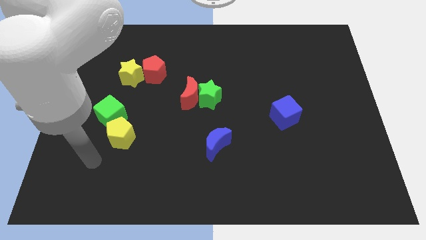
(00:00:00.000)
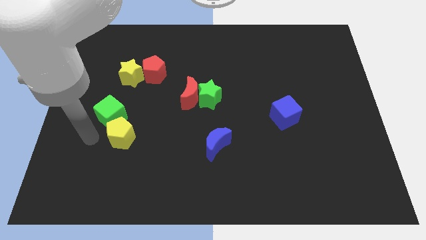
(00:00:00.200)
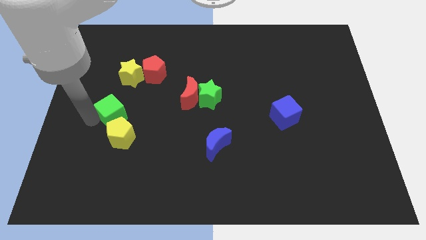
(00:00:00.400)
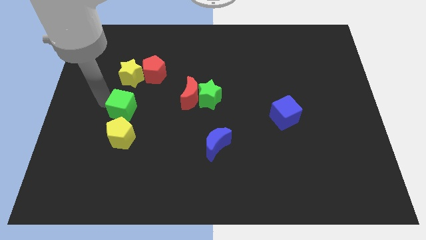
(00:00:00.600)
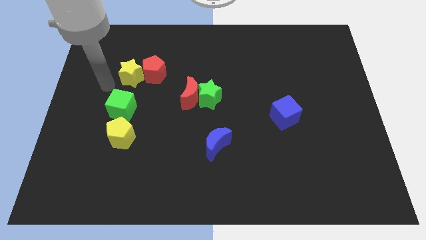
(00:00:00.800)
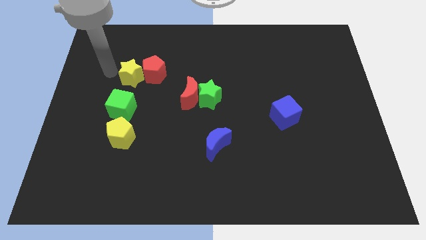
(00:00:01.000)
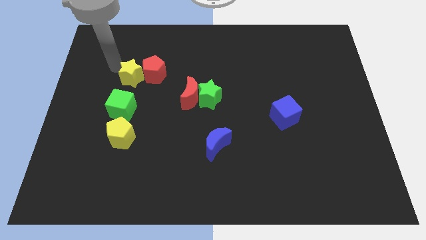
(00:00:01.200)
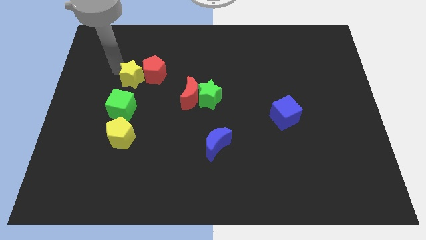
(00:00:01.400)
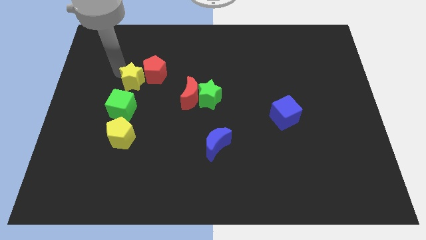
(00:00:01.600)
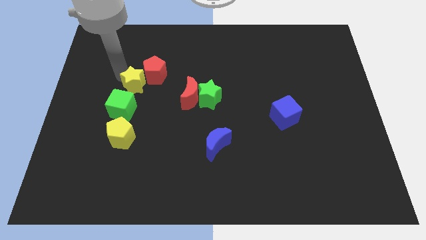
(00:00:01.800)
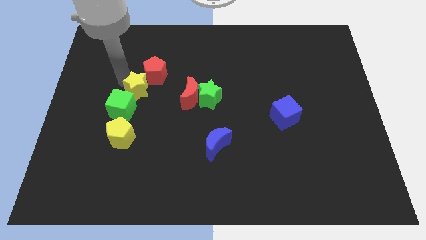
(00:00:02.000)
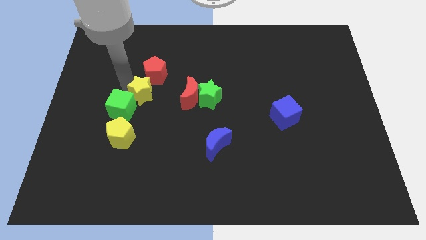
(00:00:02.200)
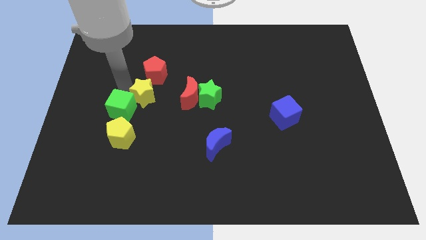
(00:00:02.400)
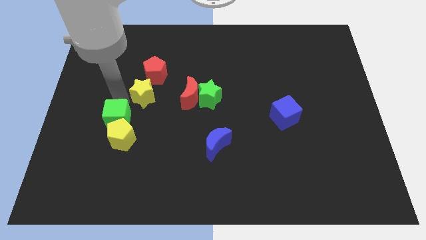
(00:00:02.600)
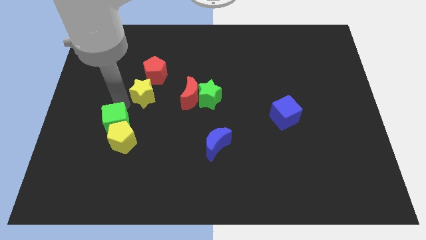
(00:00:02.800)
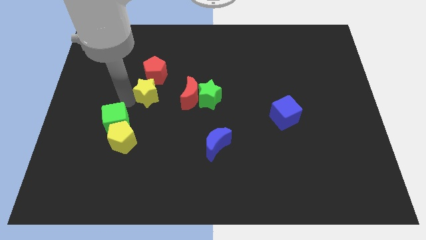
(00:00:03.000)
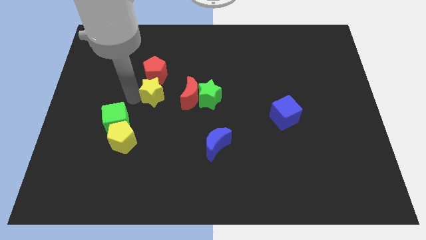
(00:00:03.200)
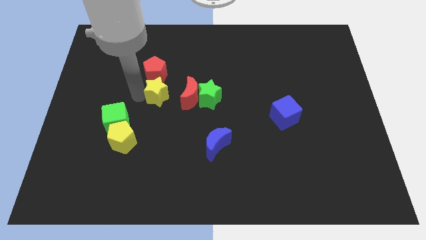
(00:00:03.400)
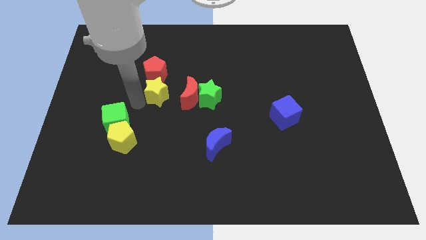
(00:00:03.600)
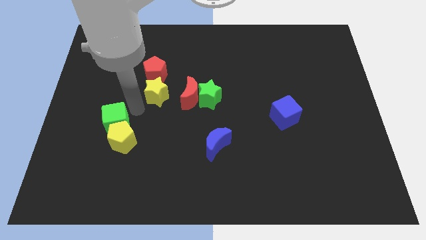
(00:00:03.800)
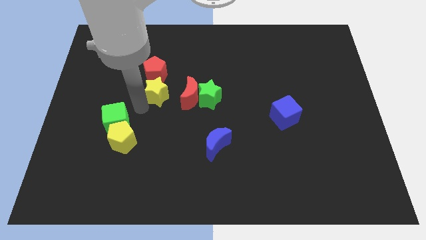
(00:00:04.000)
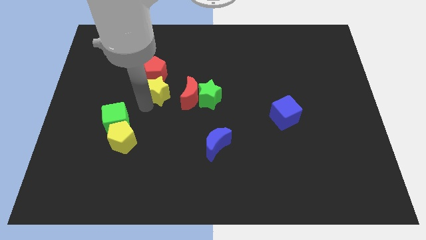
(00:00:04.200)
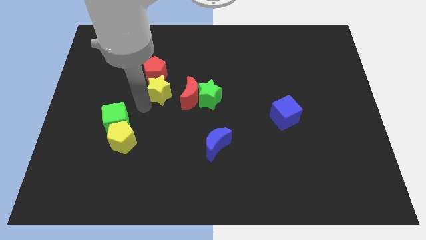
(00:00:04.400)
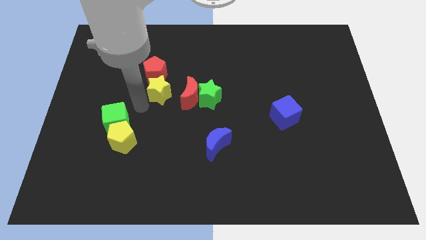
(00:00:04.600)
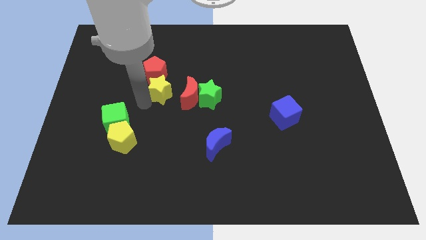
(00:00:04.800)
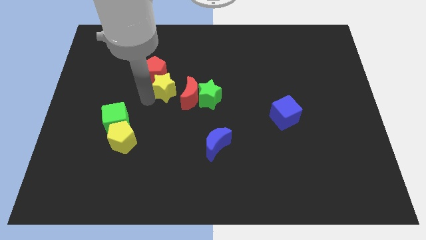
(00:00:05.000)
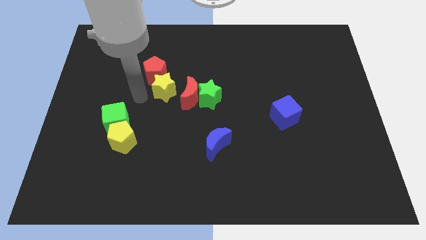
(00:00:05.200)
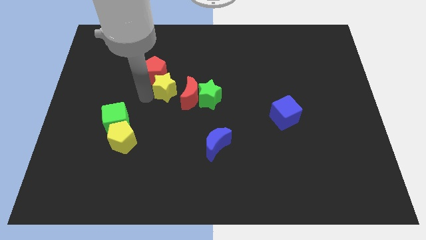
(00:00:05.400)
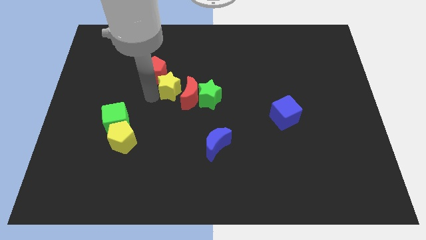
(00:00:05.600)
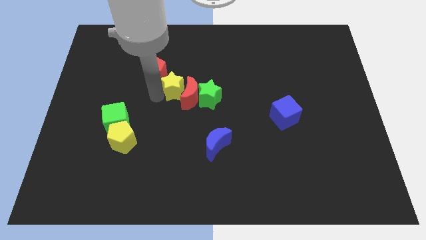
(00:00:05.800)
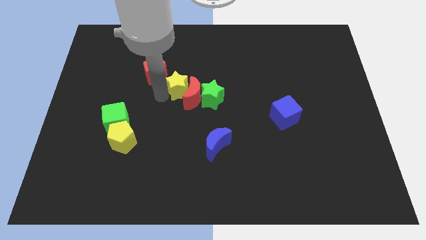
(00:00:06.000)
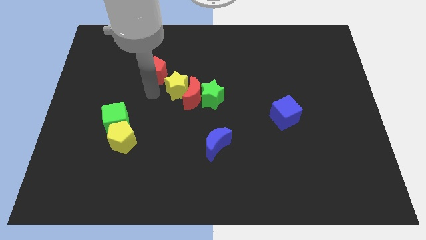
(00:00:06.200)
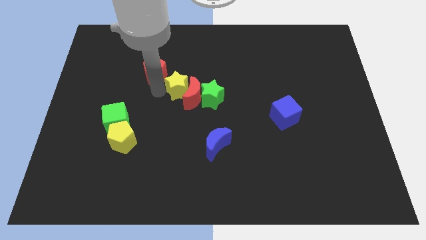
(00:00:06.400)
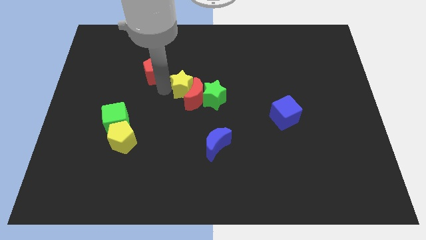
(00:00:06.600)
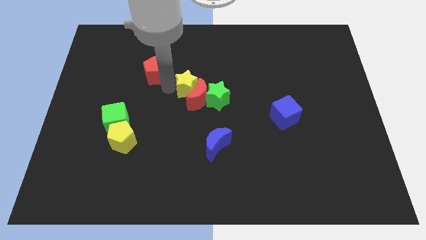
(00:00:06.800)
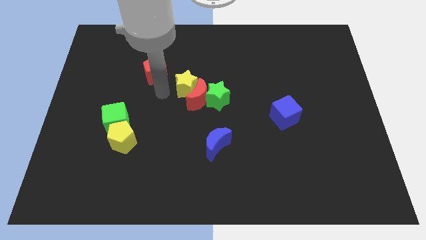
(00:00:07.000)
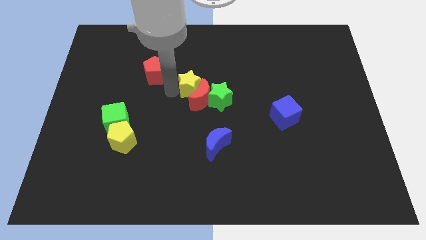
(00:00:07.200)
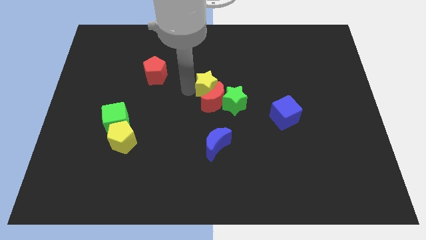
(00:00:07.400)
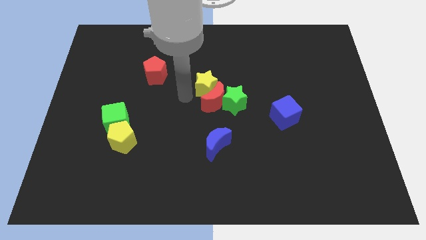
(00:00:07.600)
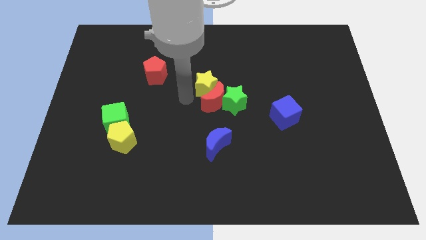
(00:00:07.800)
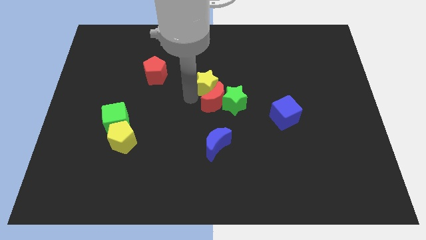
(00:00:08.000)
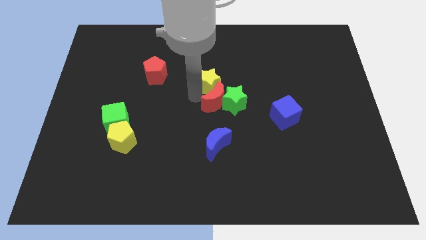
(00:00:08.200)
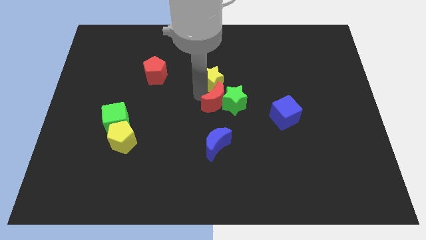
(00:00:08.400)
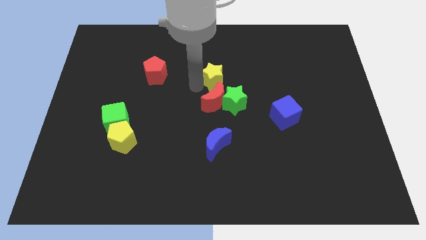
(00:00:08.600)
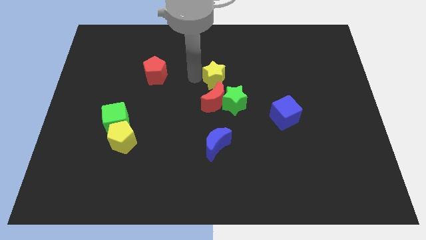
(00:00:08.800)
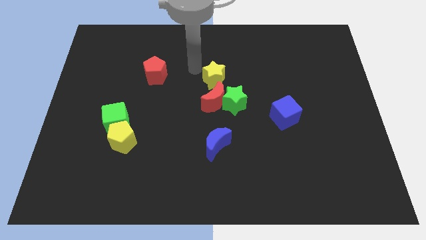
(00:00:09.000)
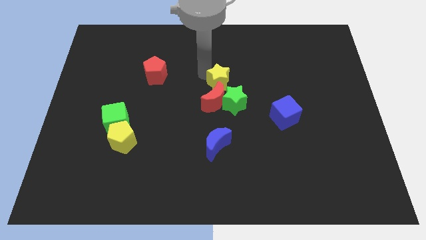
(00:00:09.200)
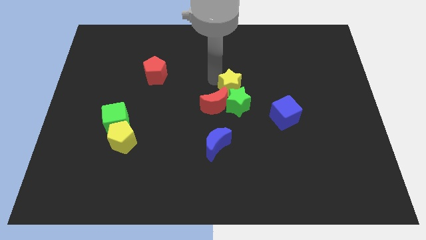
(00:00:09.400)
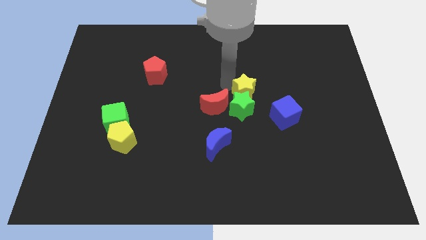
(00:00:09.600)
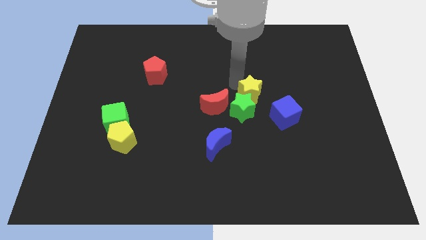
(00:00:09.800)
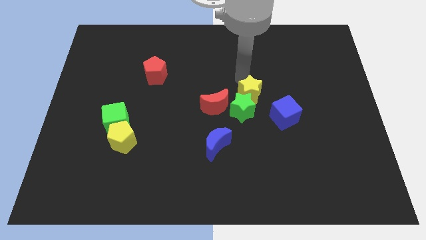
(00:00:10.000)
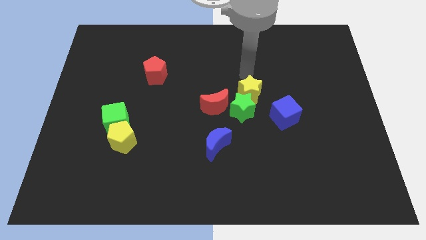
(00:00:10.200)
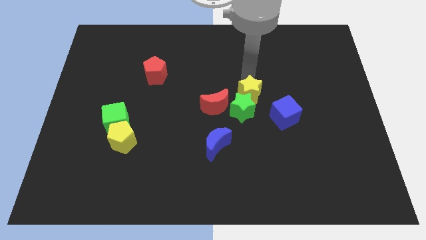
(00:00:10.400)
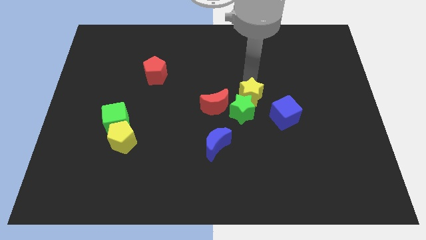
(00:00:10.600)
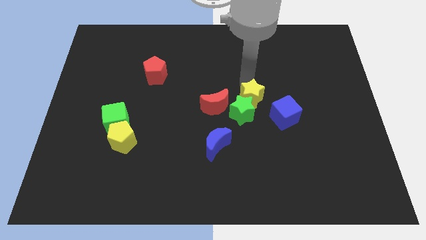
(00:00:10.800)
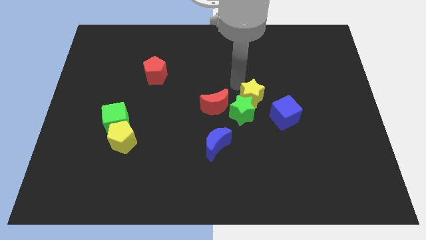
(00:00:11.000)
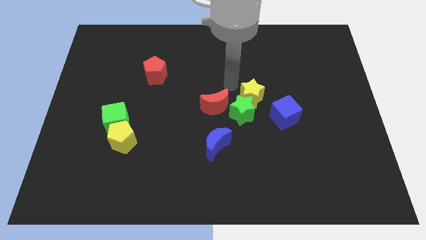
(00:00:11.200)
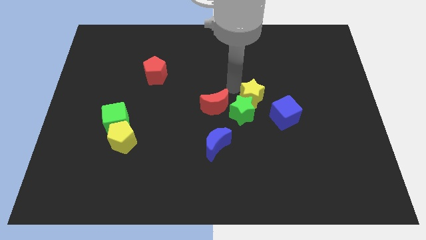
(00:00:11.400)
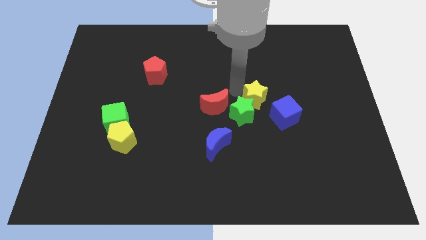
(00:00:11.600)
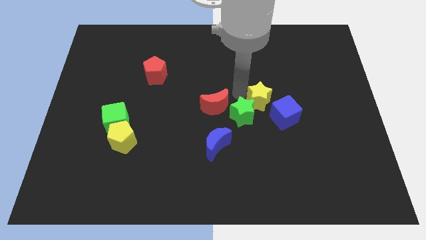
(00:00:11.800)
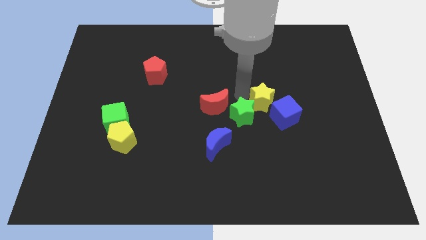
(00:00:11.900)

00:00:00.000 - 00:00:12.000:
move the yellow star to the blue cube

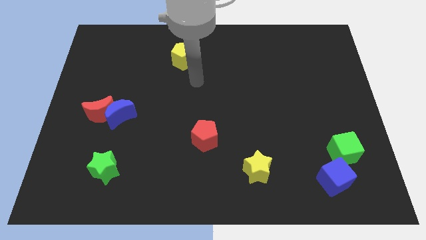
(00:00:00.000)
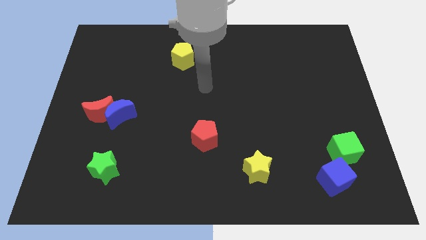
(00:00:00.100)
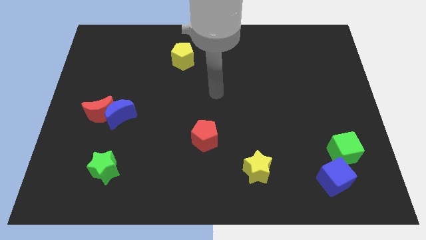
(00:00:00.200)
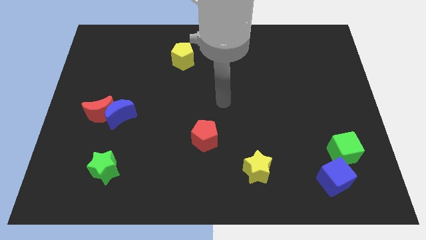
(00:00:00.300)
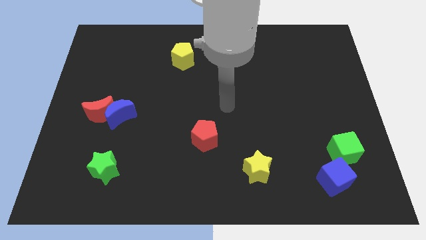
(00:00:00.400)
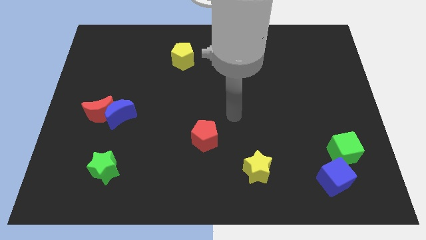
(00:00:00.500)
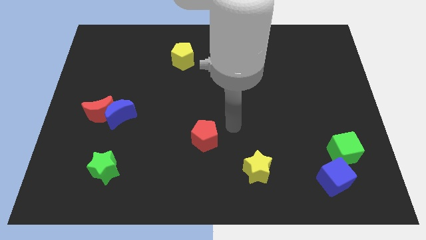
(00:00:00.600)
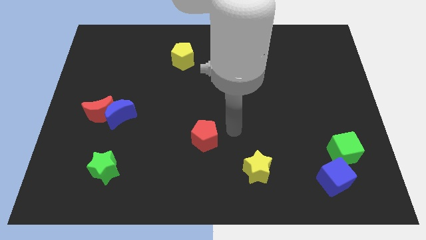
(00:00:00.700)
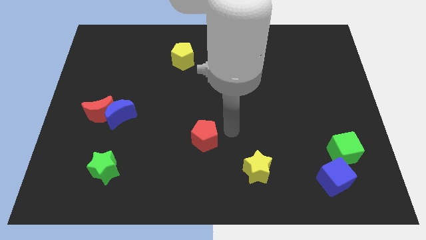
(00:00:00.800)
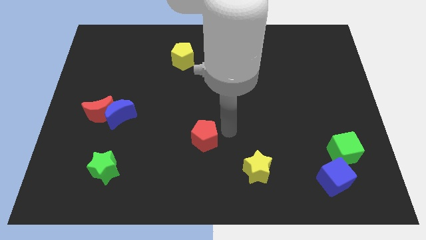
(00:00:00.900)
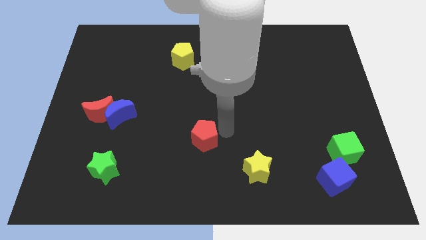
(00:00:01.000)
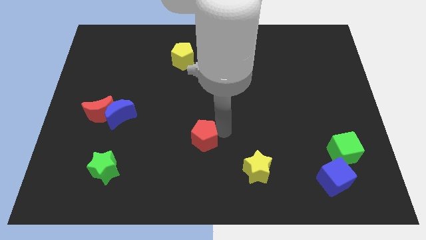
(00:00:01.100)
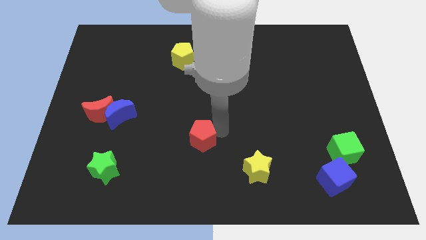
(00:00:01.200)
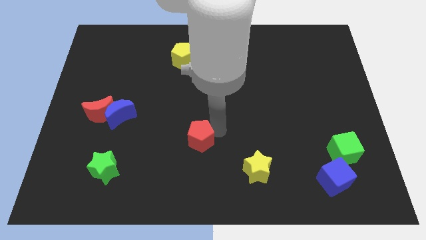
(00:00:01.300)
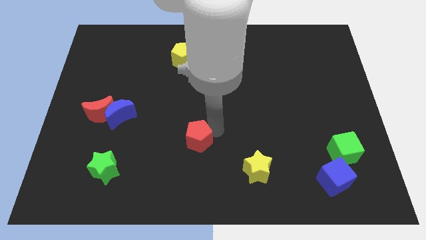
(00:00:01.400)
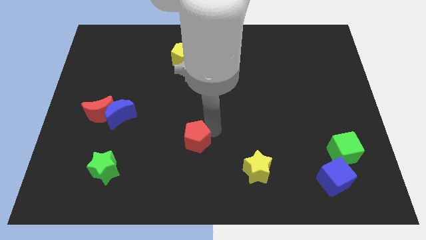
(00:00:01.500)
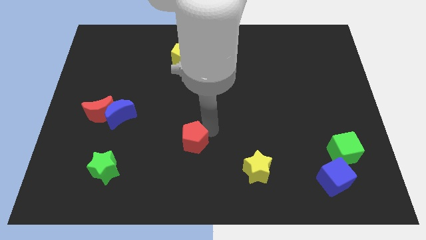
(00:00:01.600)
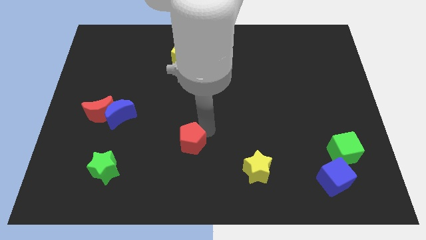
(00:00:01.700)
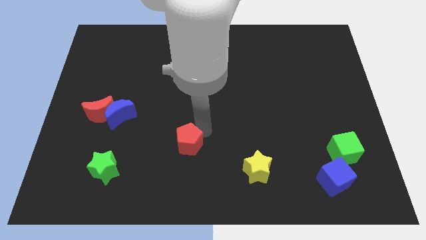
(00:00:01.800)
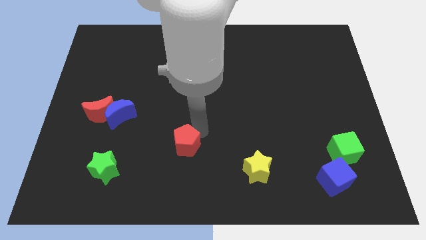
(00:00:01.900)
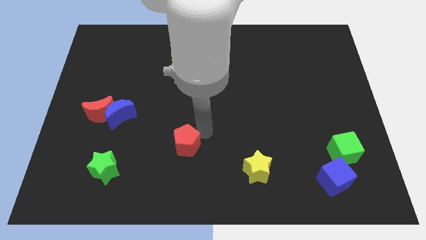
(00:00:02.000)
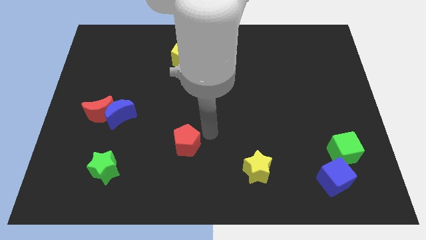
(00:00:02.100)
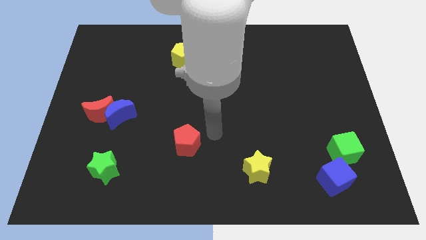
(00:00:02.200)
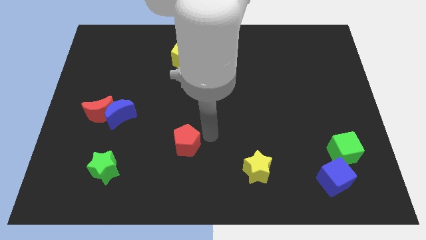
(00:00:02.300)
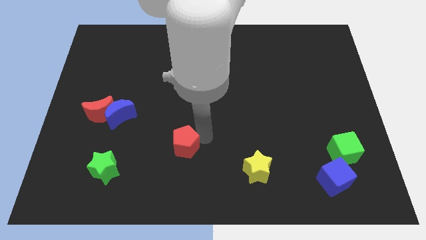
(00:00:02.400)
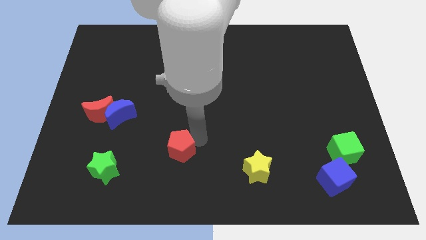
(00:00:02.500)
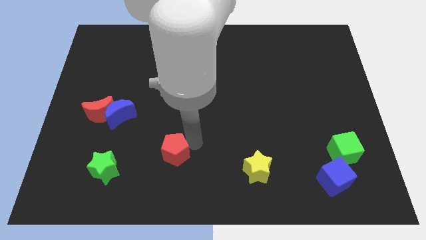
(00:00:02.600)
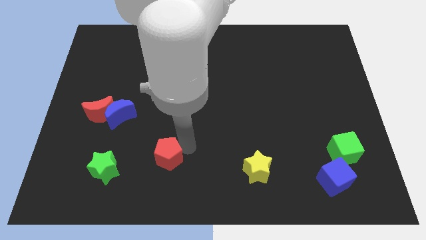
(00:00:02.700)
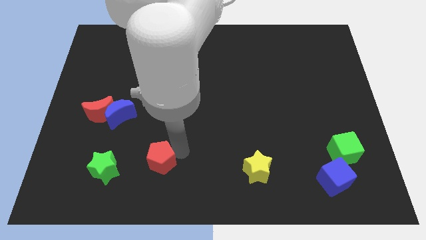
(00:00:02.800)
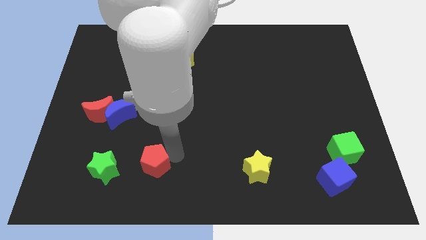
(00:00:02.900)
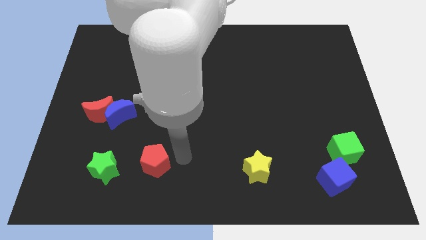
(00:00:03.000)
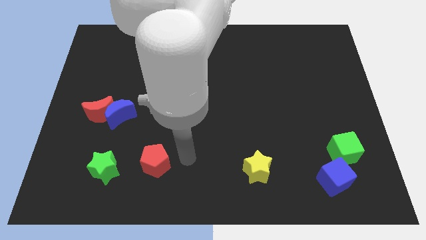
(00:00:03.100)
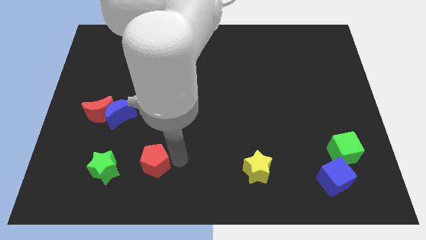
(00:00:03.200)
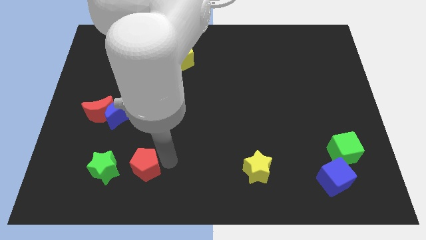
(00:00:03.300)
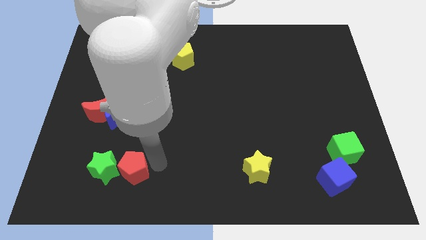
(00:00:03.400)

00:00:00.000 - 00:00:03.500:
push the red pentagon towards the green star
